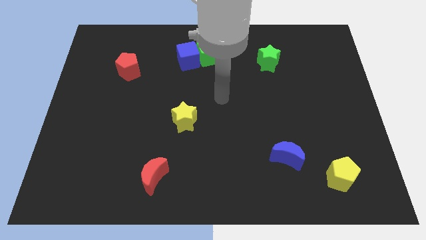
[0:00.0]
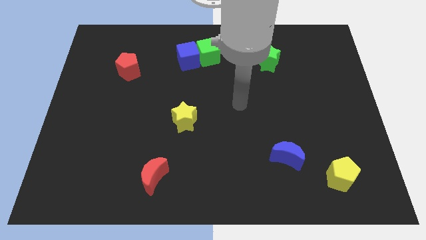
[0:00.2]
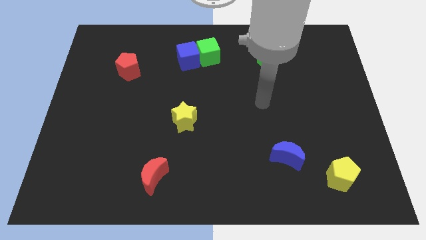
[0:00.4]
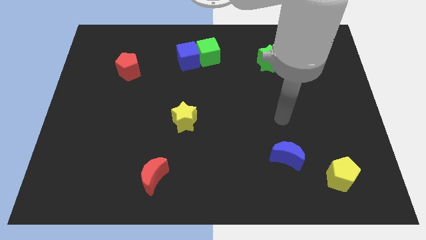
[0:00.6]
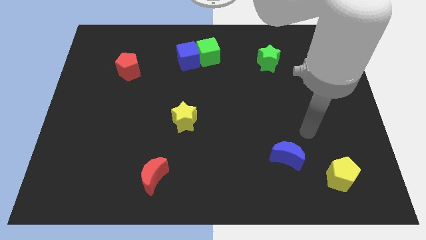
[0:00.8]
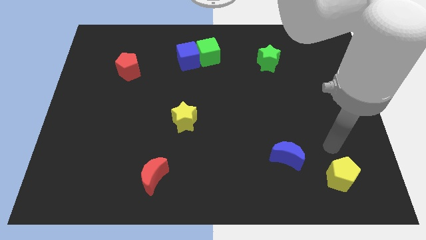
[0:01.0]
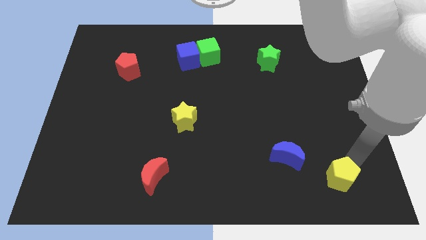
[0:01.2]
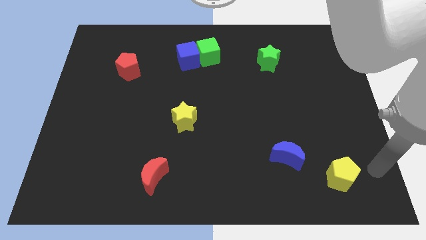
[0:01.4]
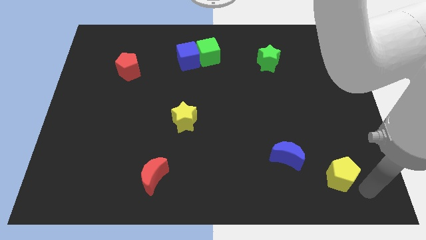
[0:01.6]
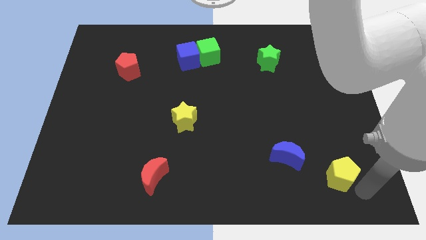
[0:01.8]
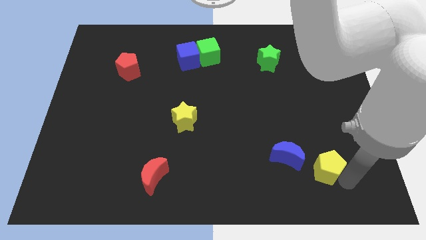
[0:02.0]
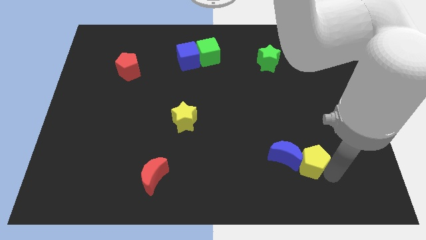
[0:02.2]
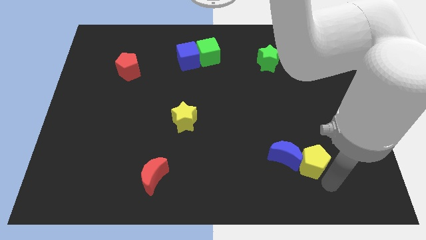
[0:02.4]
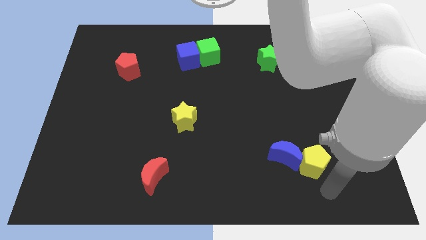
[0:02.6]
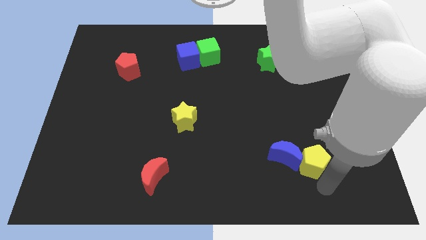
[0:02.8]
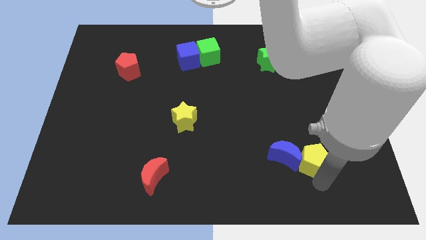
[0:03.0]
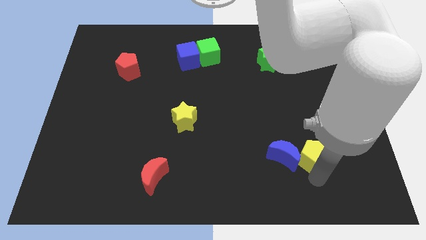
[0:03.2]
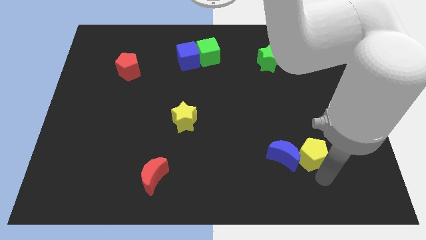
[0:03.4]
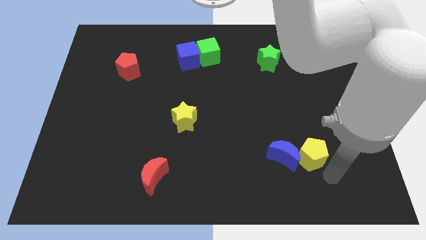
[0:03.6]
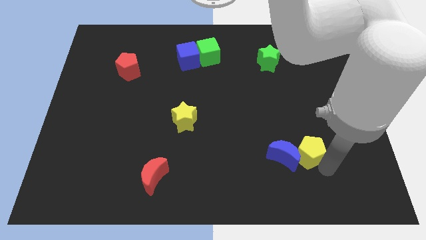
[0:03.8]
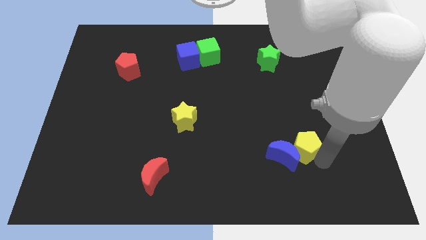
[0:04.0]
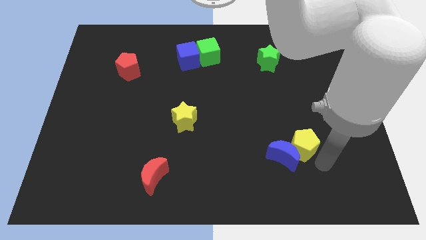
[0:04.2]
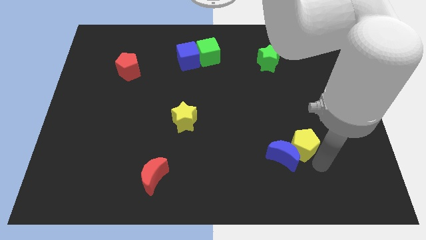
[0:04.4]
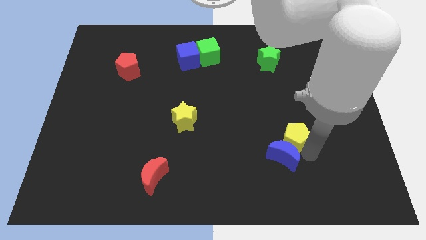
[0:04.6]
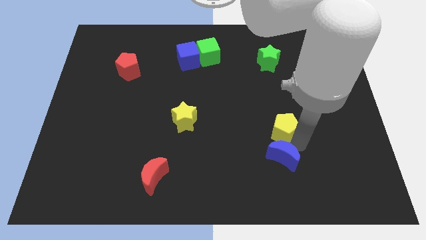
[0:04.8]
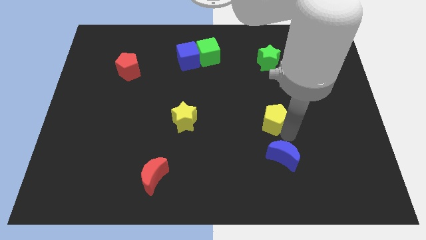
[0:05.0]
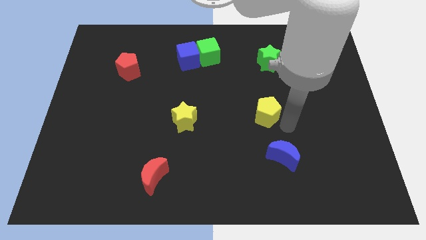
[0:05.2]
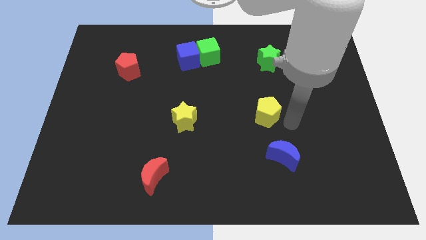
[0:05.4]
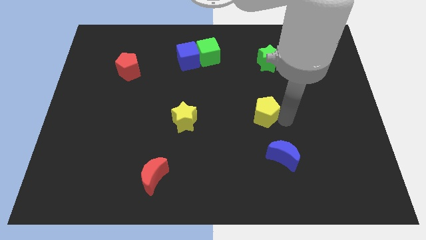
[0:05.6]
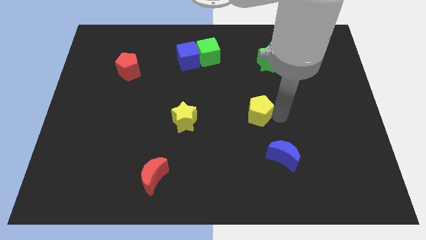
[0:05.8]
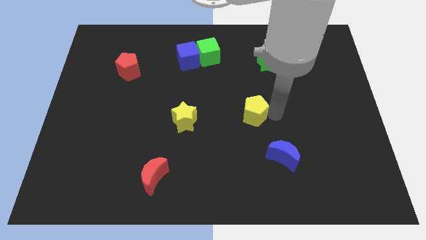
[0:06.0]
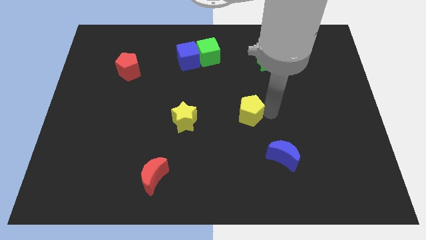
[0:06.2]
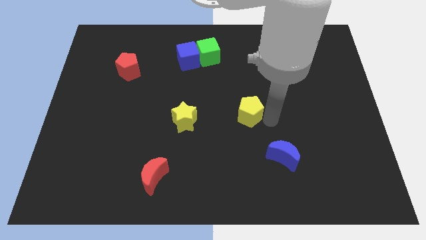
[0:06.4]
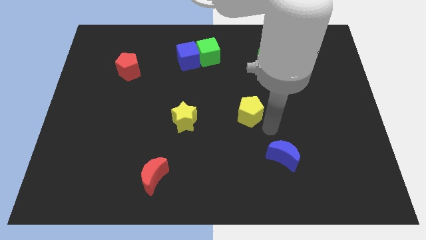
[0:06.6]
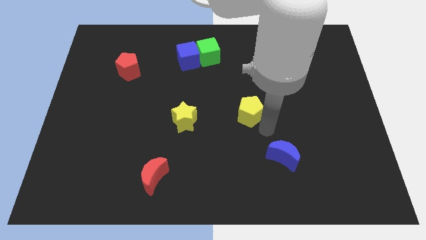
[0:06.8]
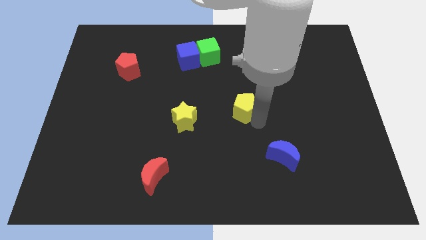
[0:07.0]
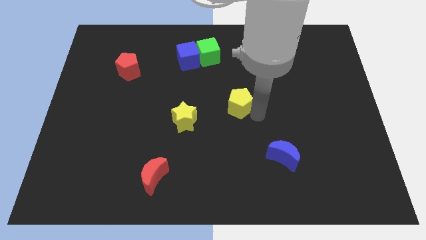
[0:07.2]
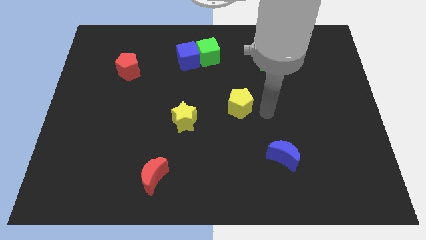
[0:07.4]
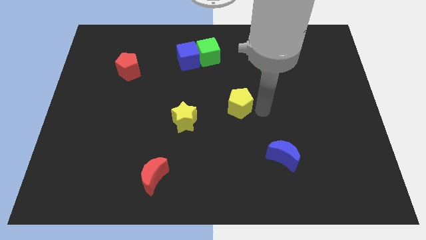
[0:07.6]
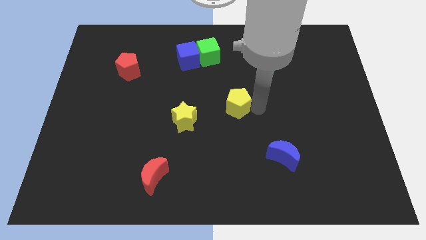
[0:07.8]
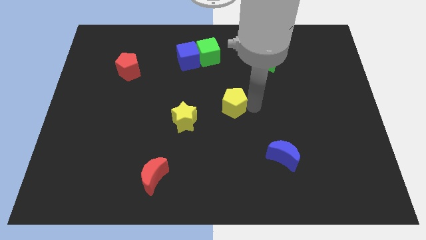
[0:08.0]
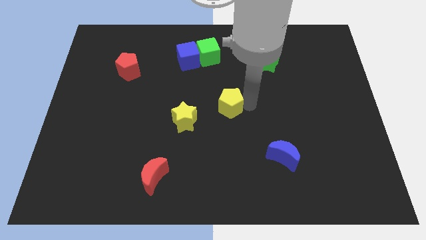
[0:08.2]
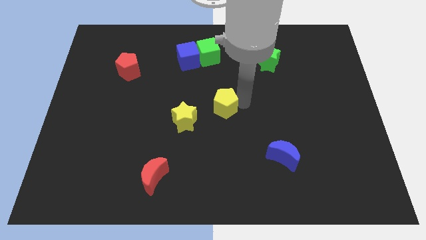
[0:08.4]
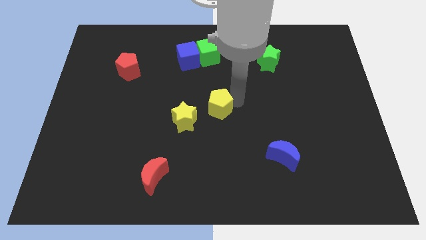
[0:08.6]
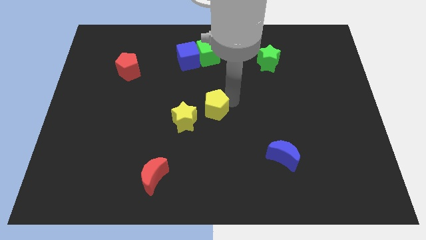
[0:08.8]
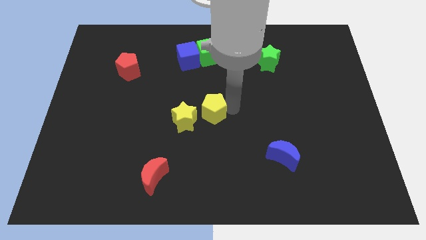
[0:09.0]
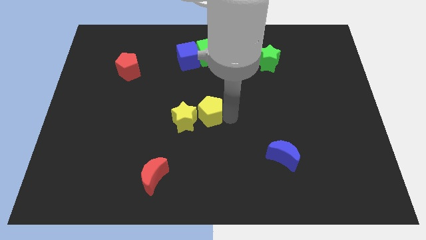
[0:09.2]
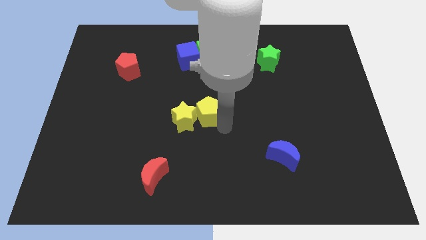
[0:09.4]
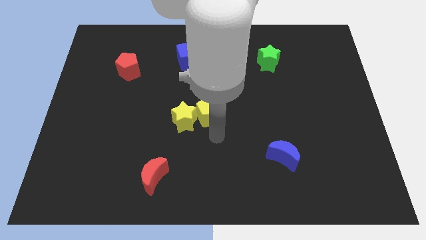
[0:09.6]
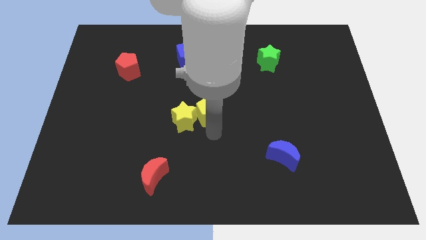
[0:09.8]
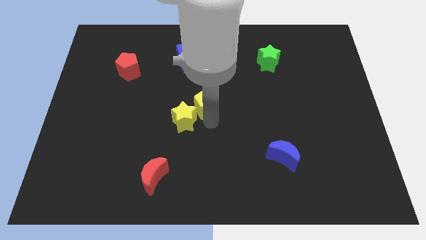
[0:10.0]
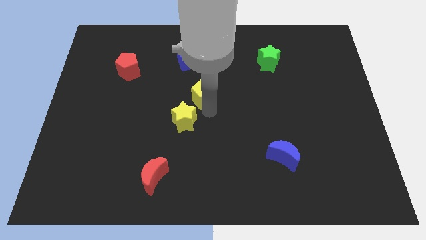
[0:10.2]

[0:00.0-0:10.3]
put the yellow pentagon to the bottom of the blue cube

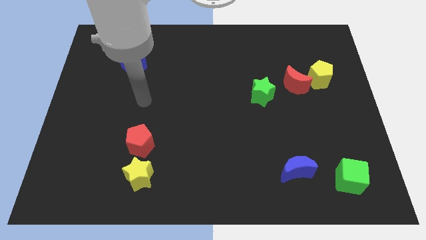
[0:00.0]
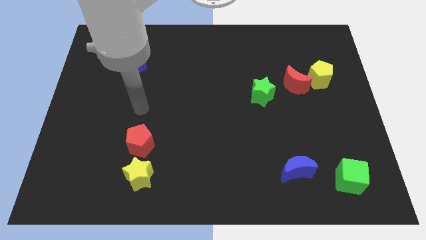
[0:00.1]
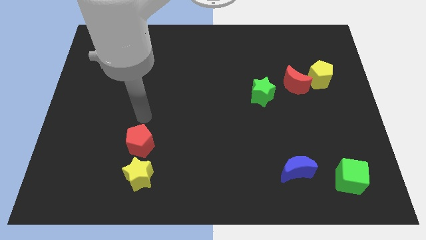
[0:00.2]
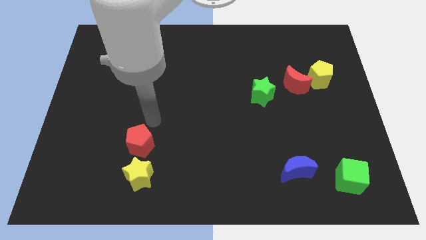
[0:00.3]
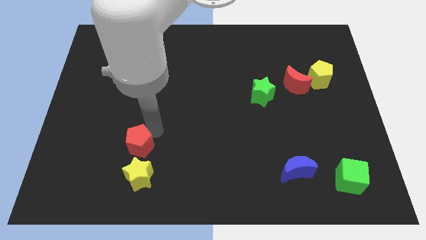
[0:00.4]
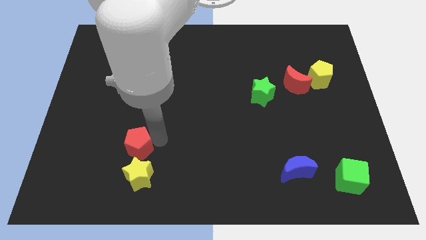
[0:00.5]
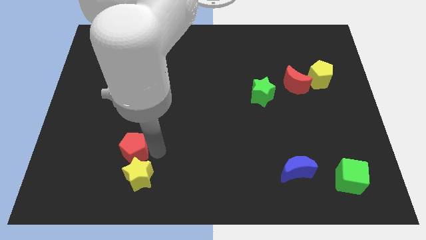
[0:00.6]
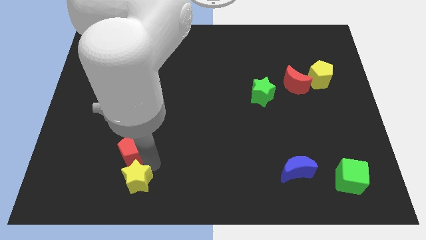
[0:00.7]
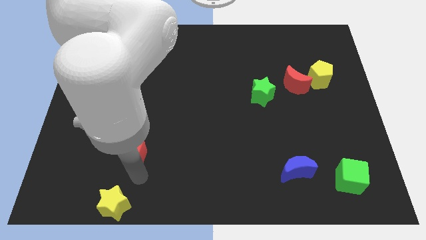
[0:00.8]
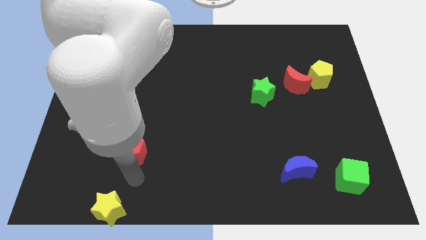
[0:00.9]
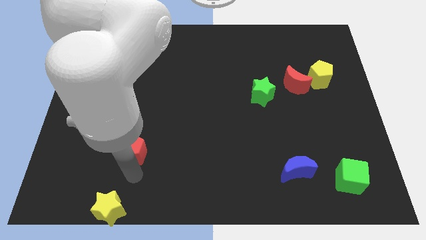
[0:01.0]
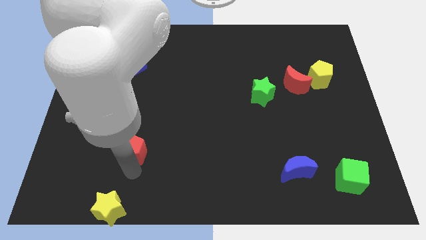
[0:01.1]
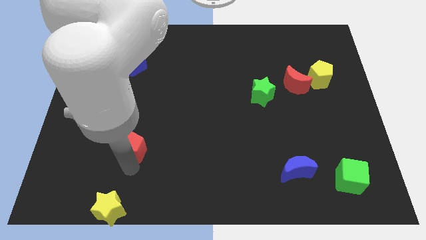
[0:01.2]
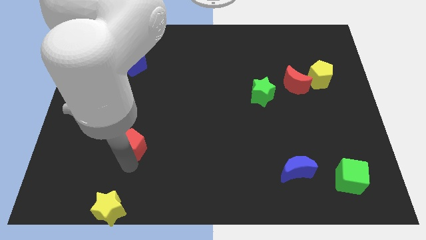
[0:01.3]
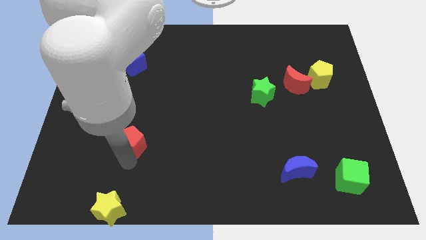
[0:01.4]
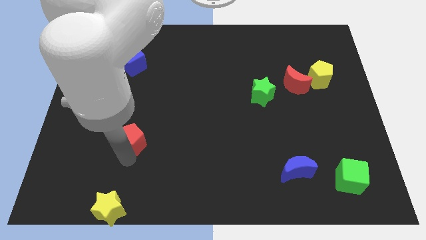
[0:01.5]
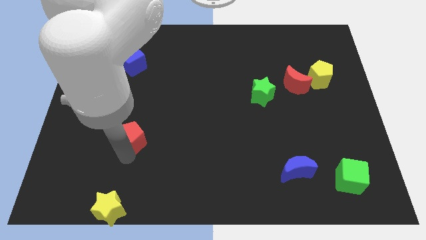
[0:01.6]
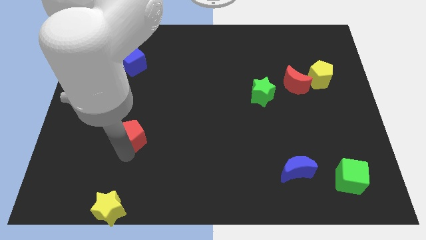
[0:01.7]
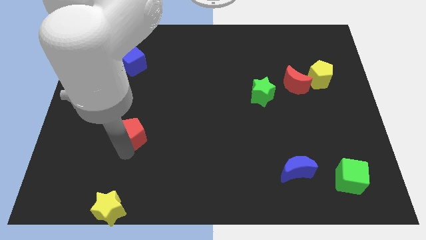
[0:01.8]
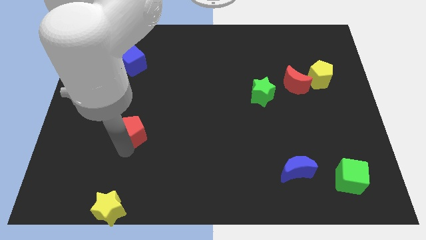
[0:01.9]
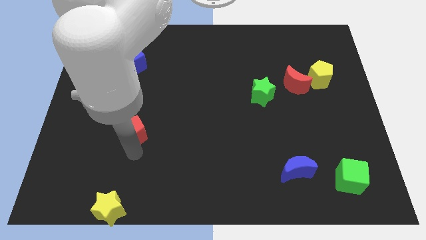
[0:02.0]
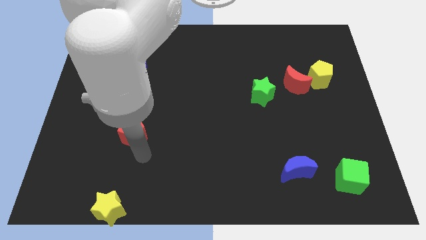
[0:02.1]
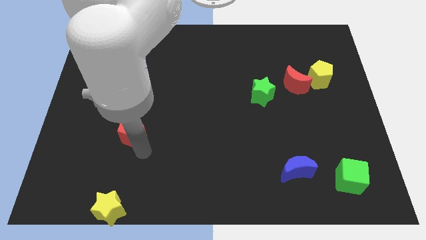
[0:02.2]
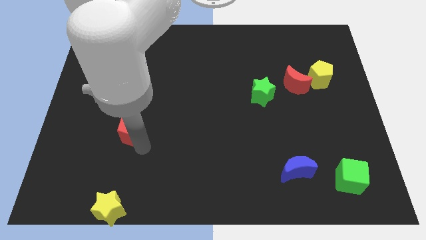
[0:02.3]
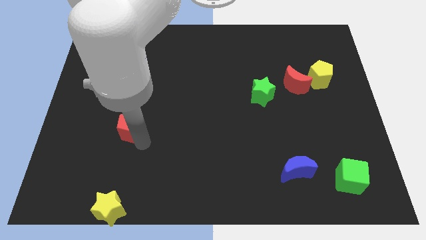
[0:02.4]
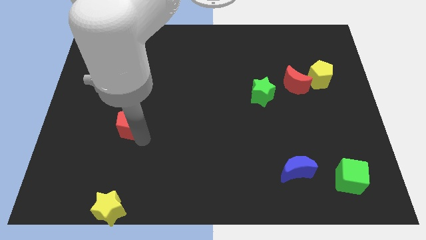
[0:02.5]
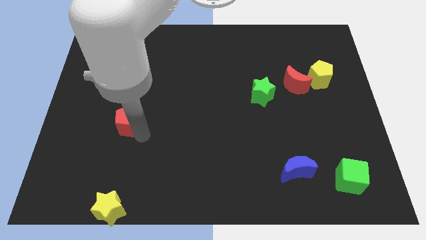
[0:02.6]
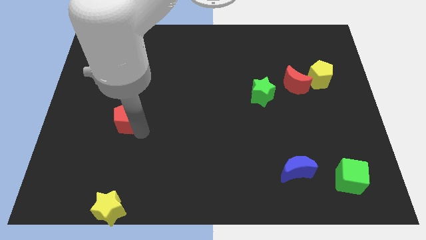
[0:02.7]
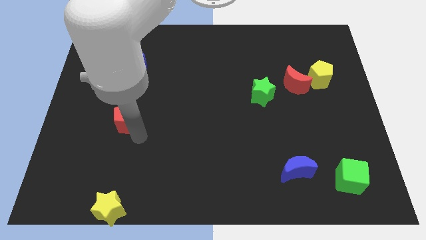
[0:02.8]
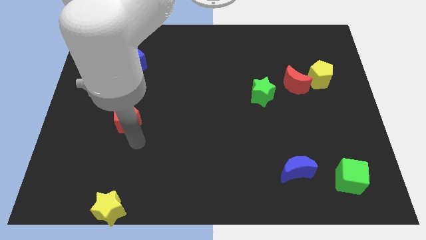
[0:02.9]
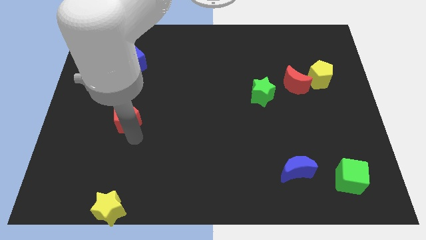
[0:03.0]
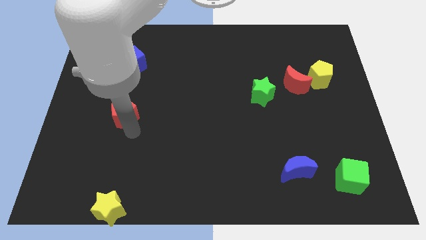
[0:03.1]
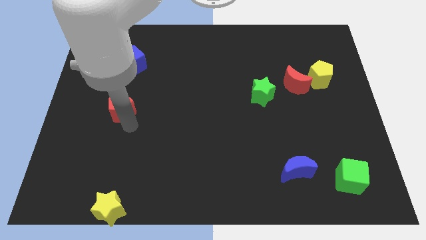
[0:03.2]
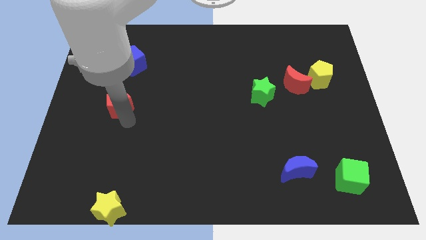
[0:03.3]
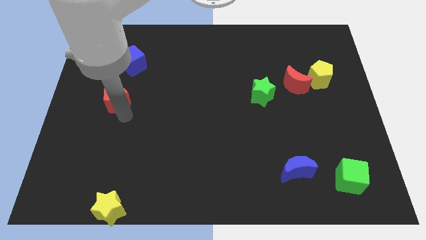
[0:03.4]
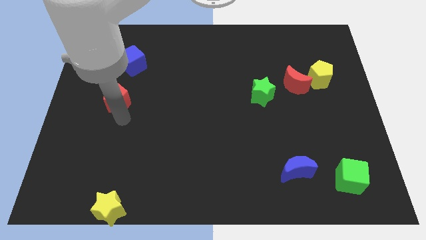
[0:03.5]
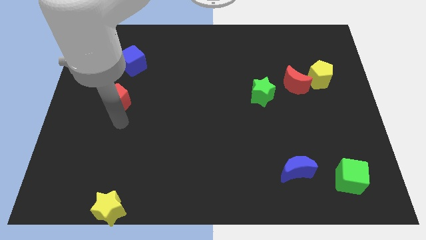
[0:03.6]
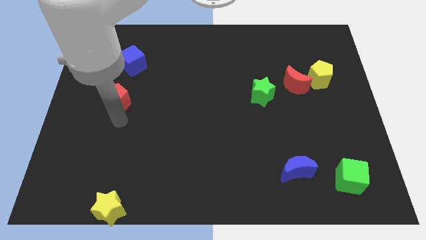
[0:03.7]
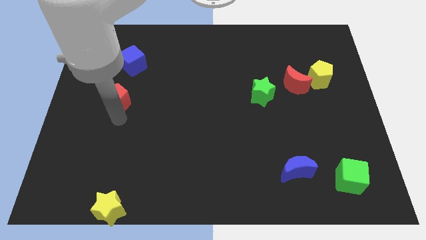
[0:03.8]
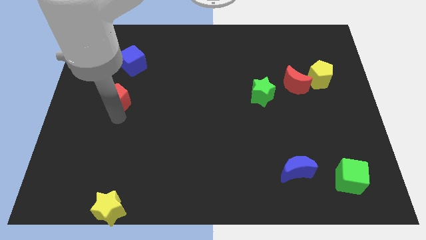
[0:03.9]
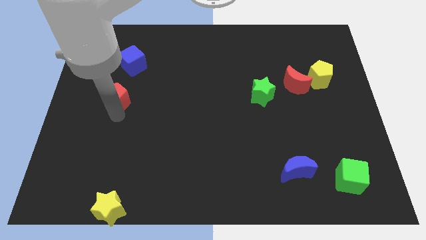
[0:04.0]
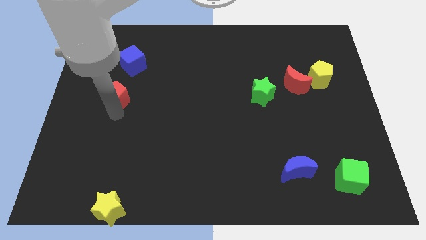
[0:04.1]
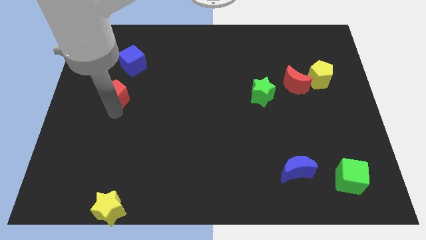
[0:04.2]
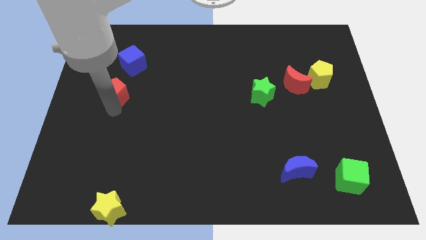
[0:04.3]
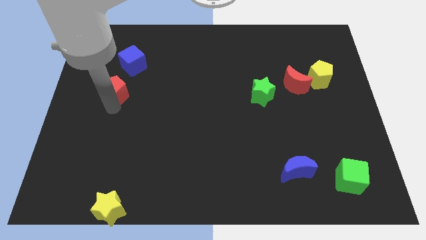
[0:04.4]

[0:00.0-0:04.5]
slide the red pentagon to the bottom left side of the blue cube
